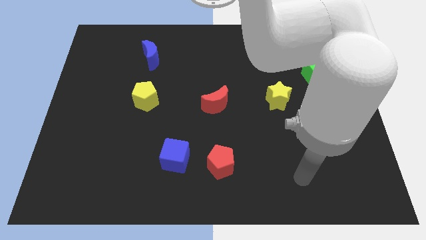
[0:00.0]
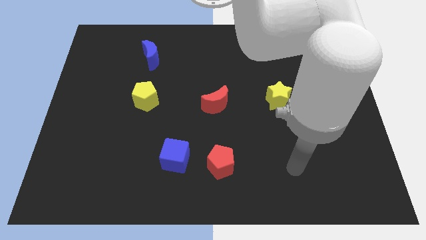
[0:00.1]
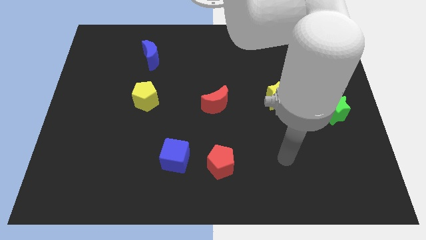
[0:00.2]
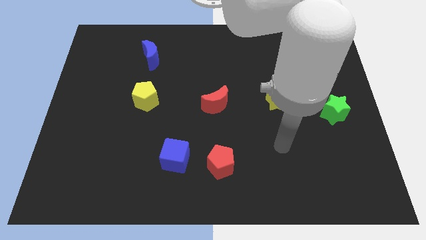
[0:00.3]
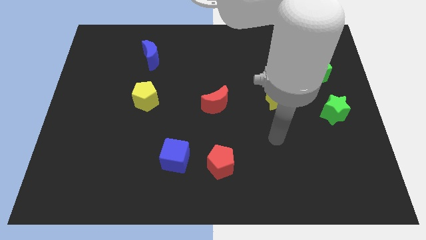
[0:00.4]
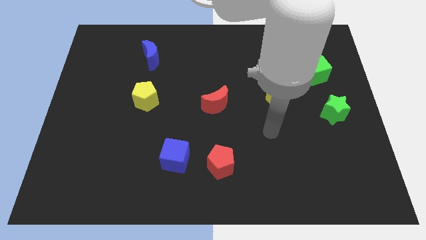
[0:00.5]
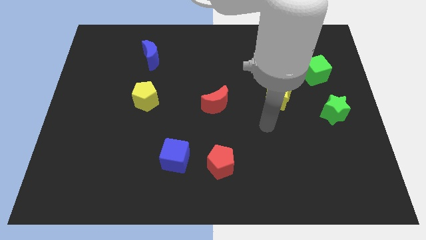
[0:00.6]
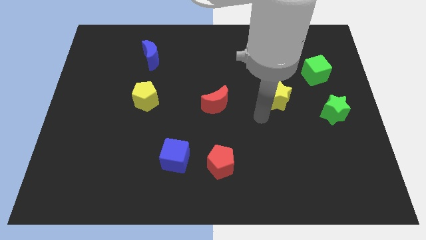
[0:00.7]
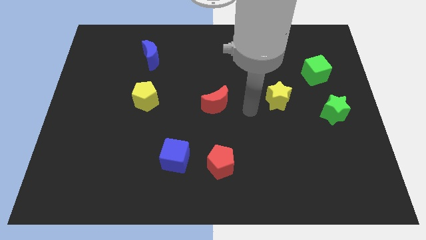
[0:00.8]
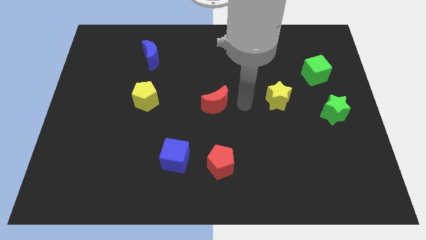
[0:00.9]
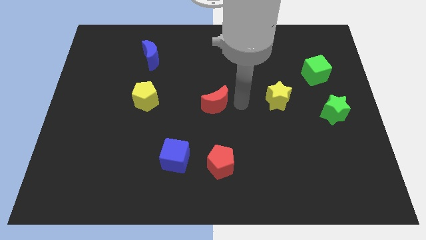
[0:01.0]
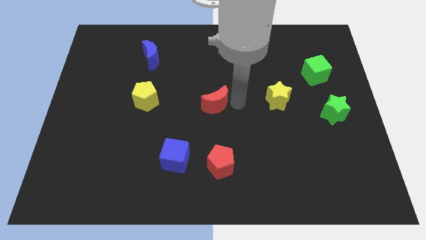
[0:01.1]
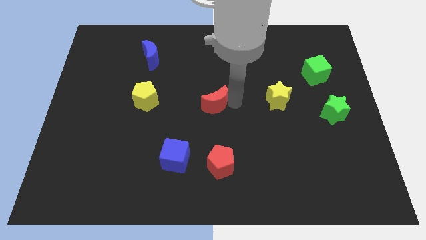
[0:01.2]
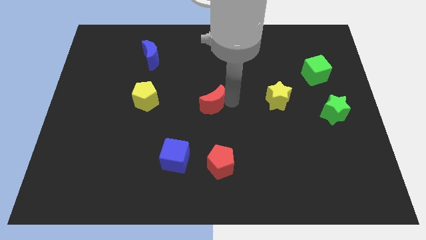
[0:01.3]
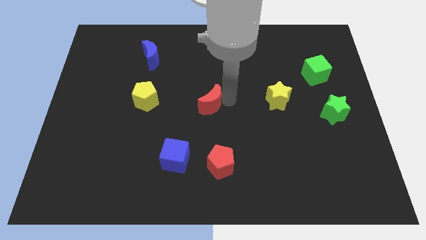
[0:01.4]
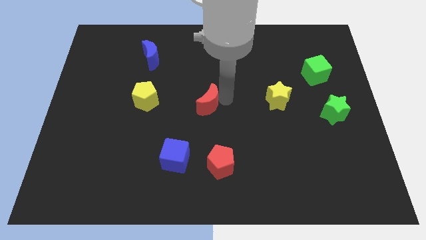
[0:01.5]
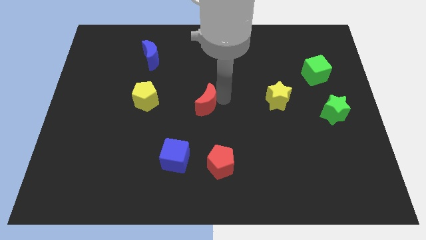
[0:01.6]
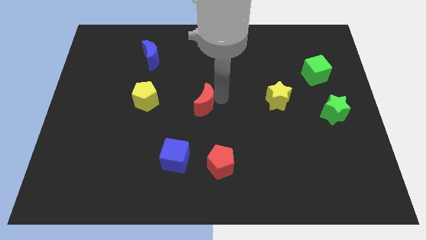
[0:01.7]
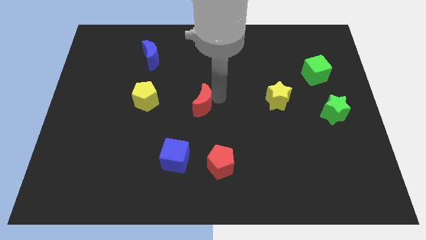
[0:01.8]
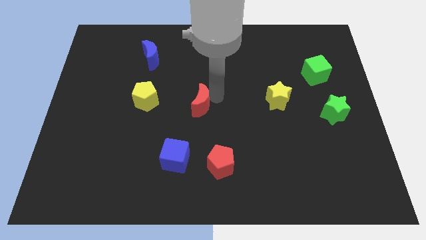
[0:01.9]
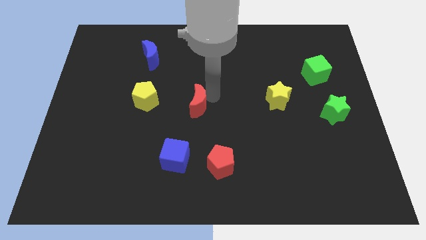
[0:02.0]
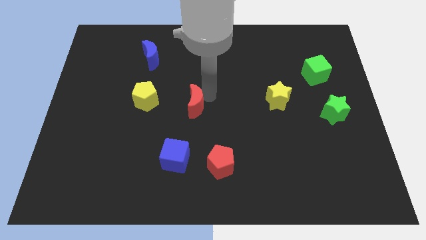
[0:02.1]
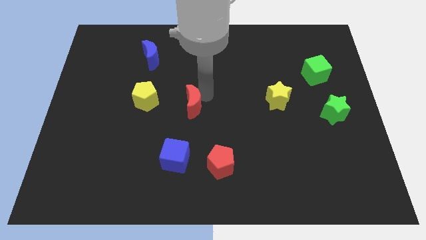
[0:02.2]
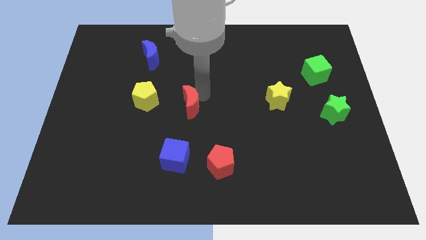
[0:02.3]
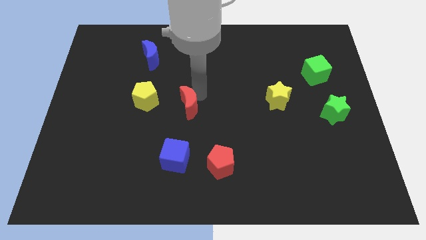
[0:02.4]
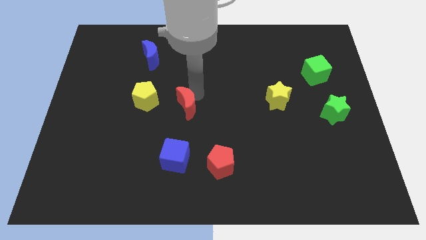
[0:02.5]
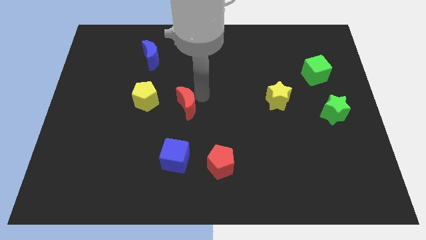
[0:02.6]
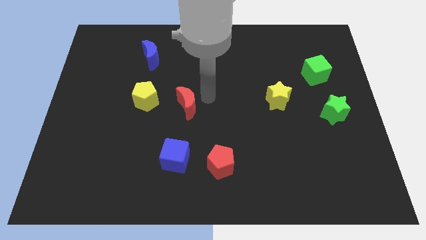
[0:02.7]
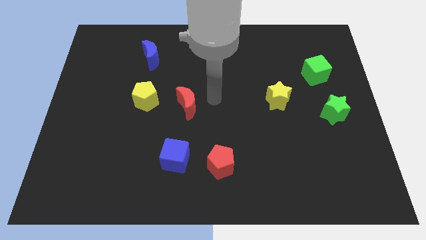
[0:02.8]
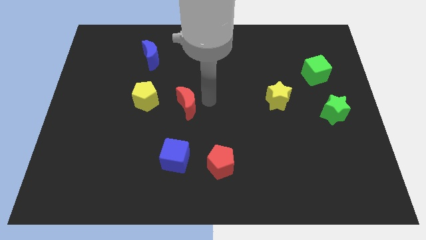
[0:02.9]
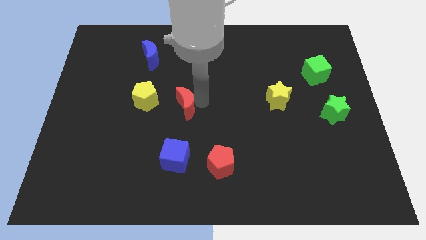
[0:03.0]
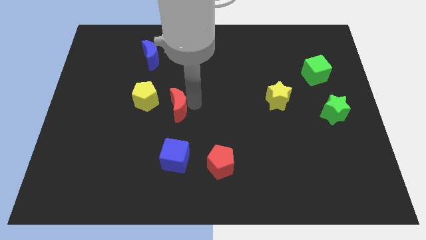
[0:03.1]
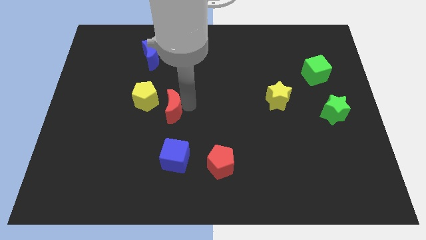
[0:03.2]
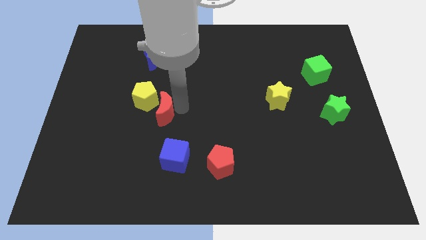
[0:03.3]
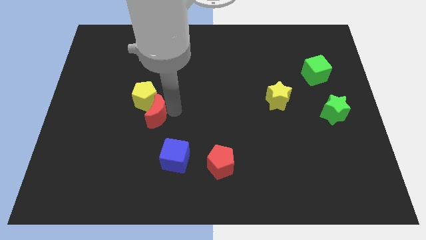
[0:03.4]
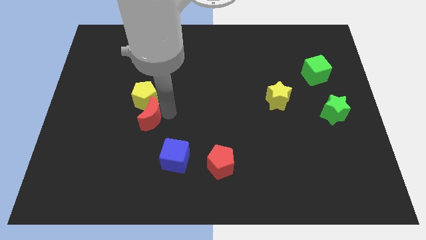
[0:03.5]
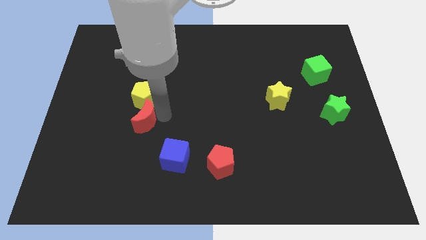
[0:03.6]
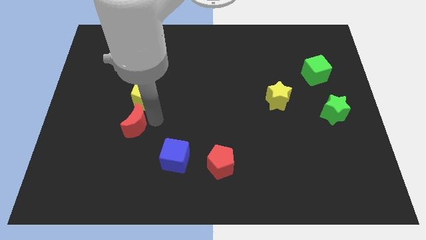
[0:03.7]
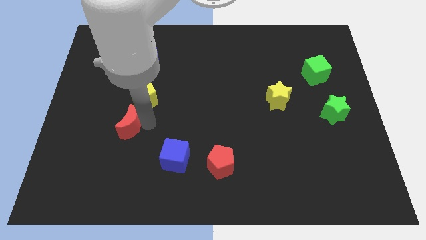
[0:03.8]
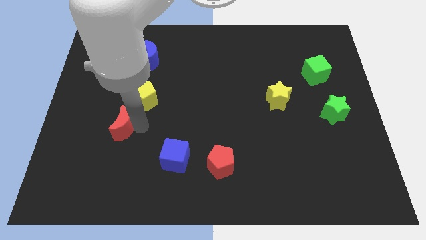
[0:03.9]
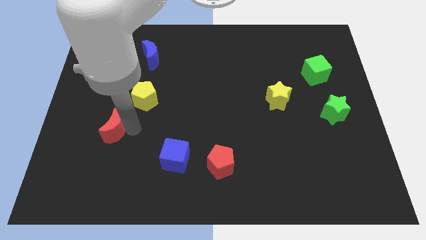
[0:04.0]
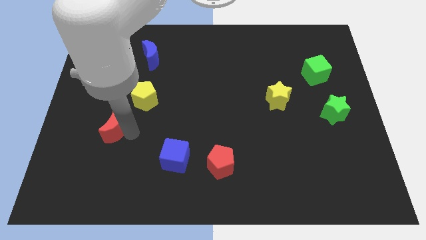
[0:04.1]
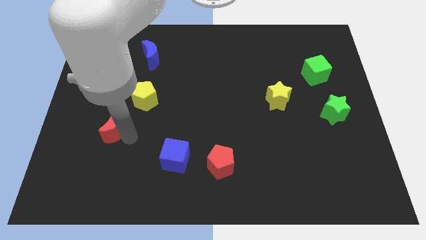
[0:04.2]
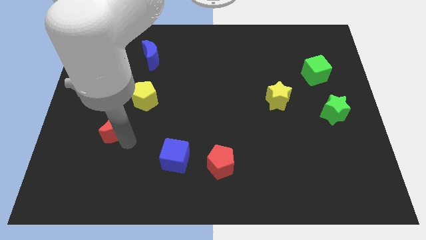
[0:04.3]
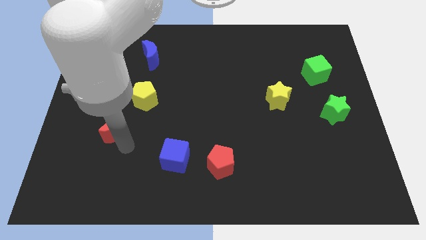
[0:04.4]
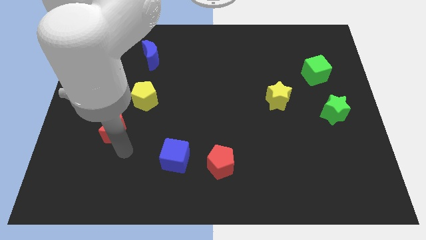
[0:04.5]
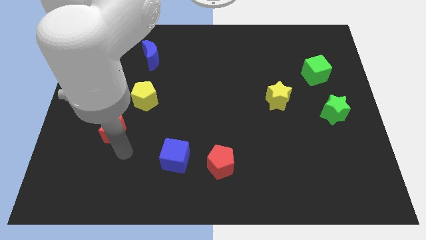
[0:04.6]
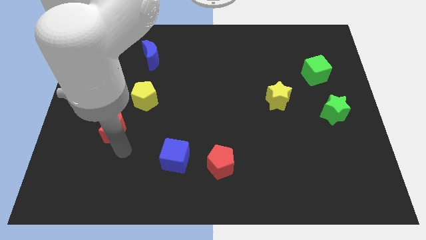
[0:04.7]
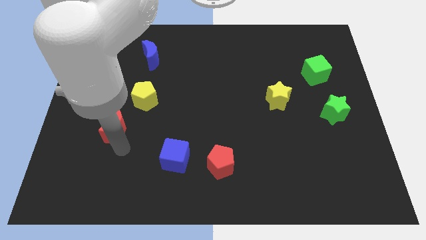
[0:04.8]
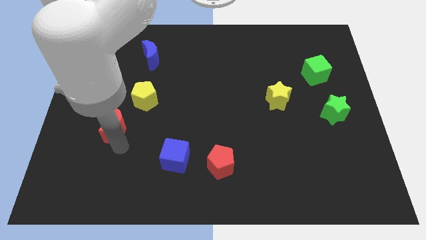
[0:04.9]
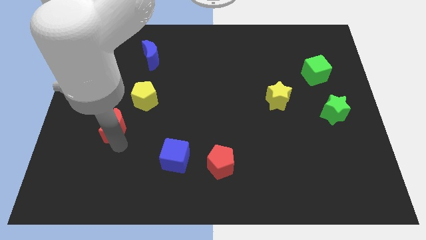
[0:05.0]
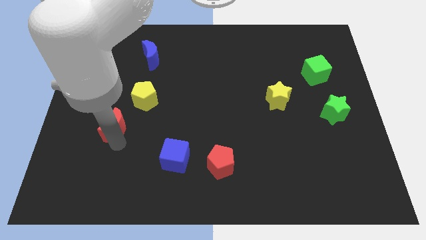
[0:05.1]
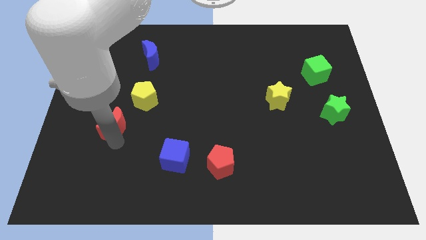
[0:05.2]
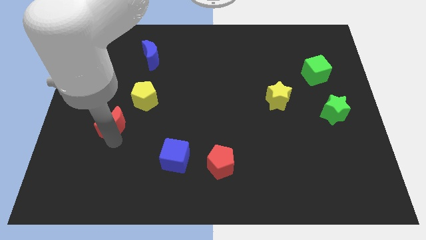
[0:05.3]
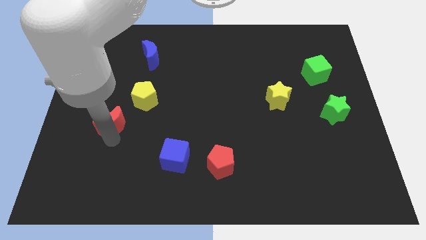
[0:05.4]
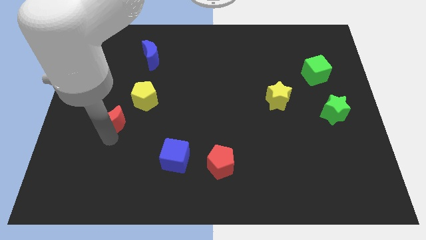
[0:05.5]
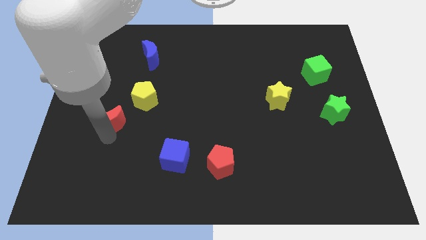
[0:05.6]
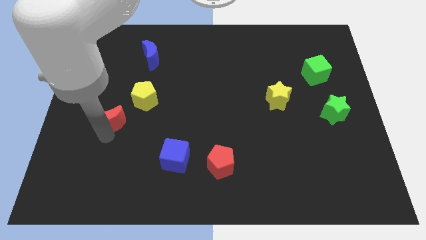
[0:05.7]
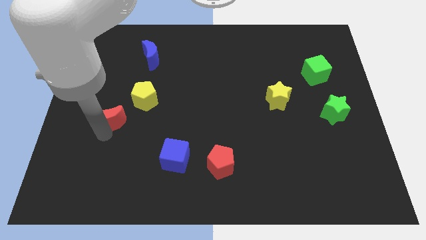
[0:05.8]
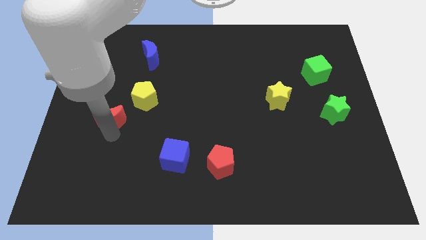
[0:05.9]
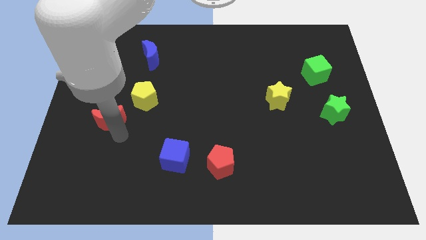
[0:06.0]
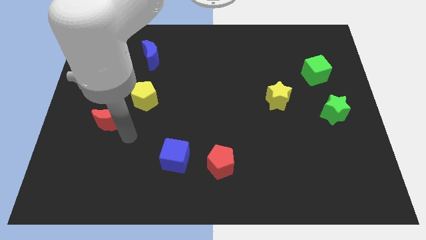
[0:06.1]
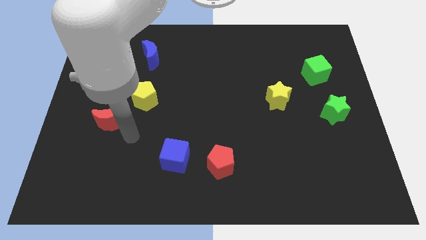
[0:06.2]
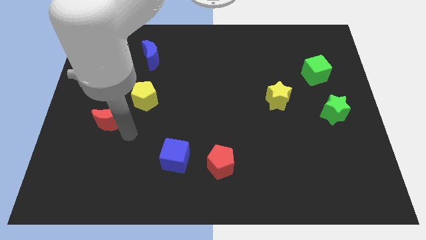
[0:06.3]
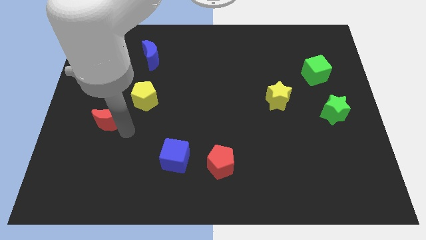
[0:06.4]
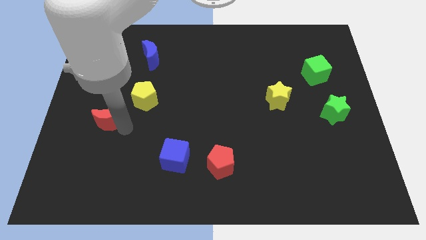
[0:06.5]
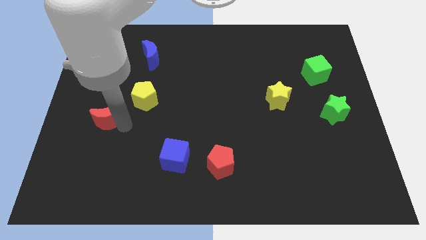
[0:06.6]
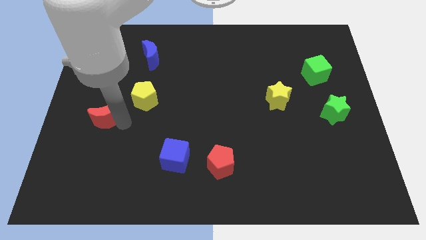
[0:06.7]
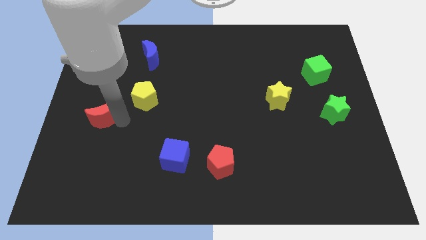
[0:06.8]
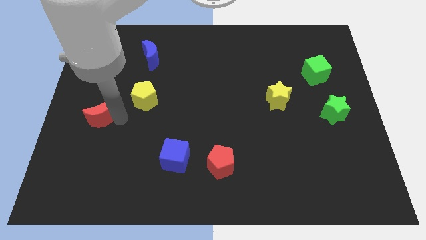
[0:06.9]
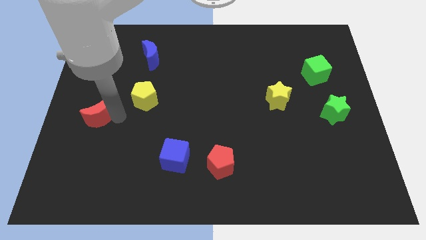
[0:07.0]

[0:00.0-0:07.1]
push the red moon to the left side of the board
